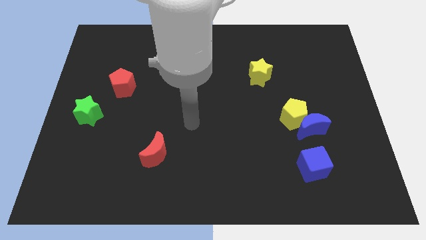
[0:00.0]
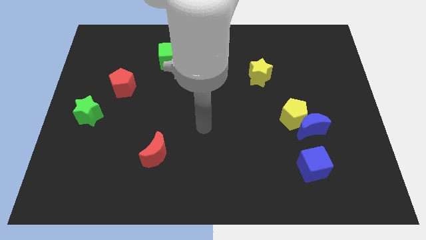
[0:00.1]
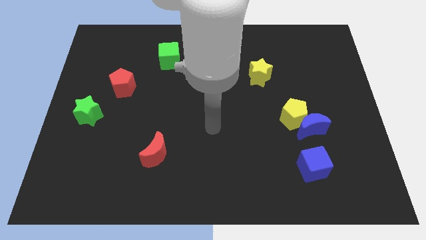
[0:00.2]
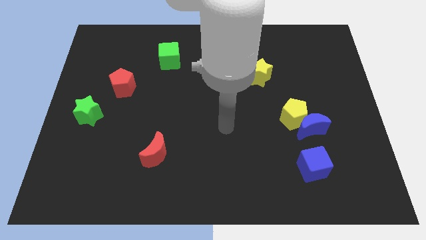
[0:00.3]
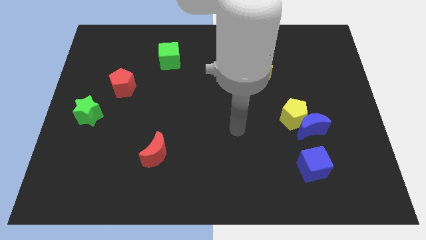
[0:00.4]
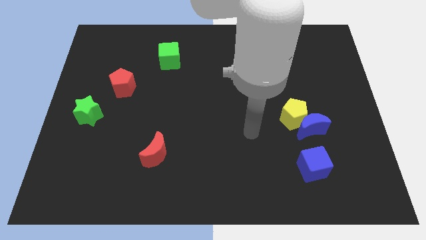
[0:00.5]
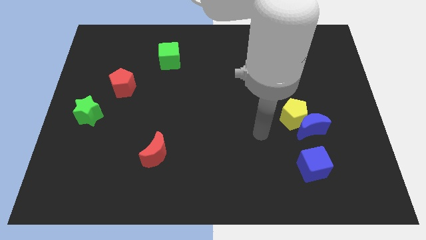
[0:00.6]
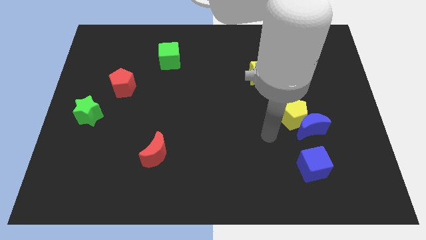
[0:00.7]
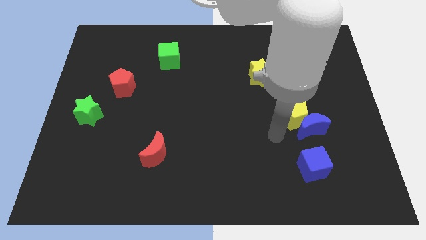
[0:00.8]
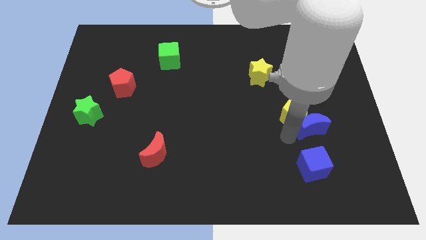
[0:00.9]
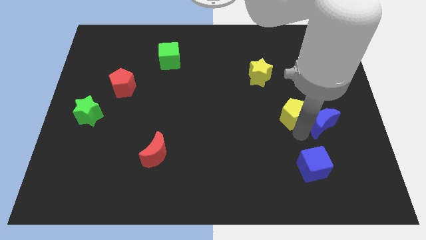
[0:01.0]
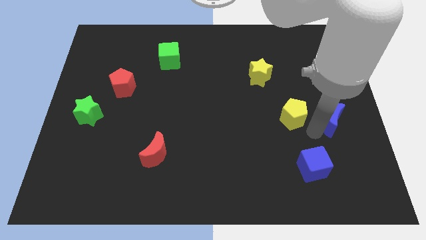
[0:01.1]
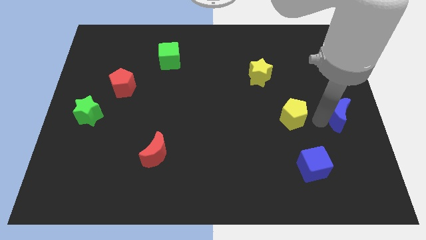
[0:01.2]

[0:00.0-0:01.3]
pull the yellow pentagon apart from the blue moon

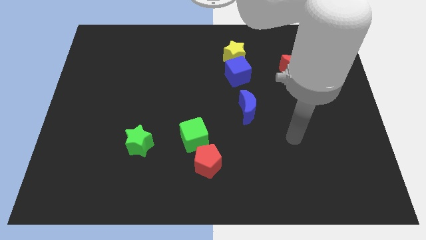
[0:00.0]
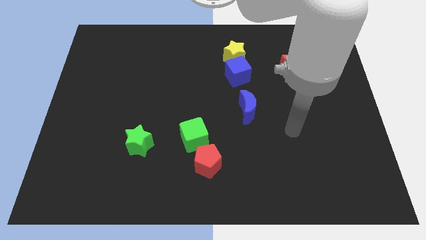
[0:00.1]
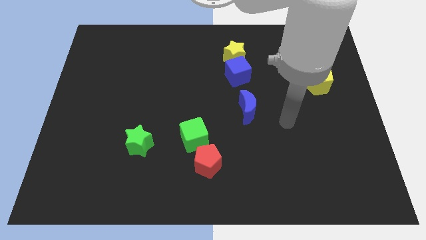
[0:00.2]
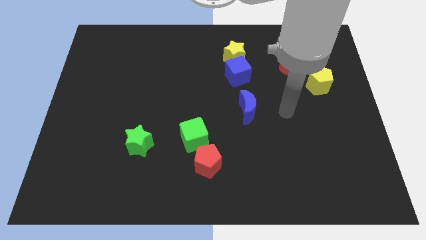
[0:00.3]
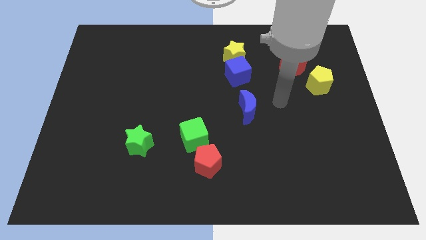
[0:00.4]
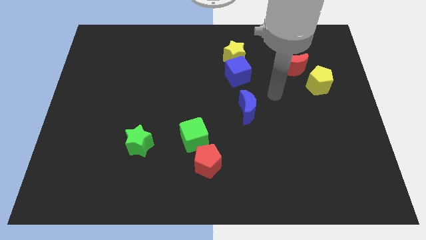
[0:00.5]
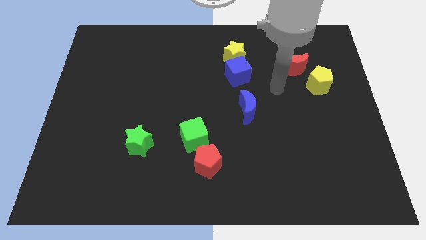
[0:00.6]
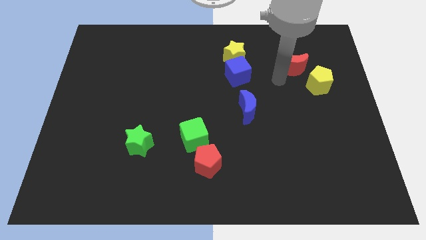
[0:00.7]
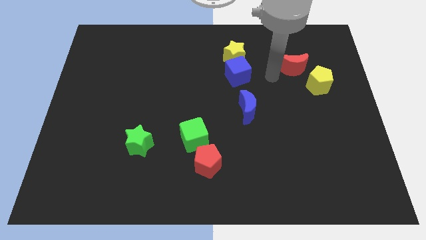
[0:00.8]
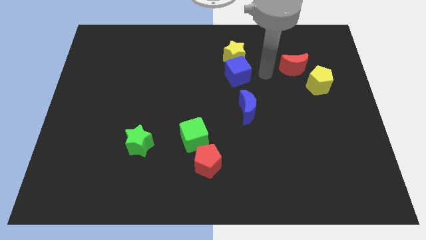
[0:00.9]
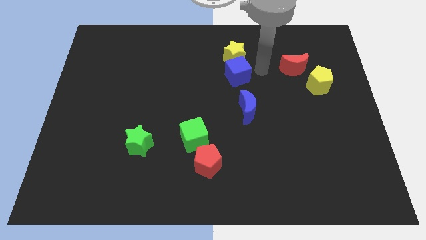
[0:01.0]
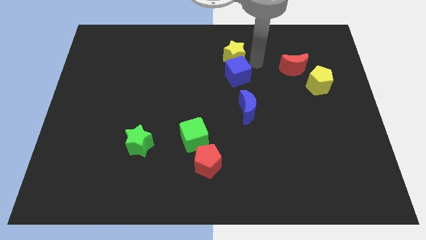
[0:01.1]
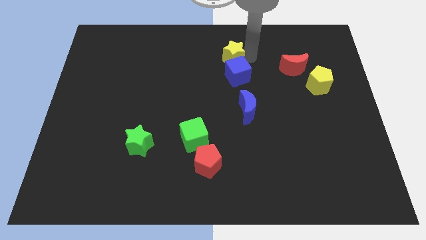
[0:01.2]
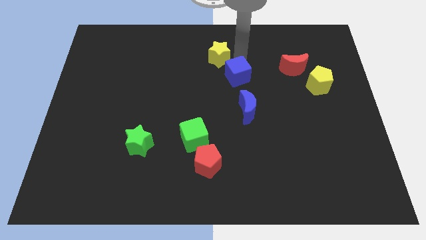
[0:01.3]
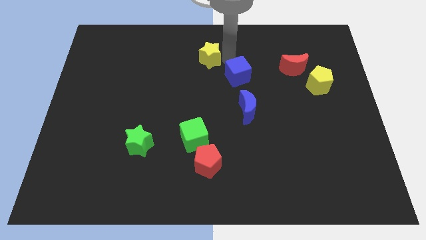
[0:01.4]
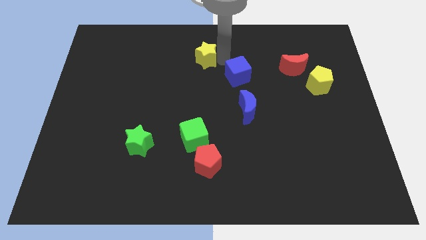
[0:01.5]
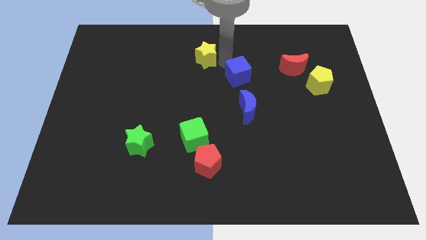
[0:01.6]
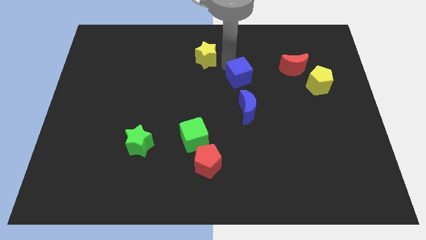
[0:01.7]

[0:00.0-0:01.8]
pull the blue cube apart from the yellow star

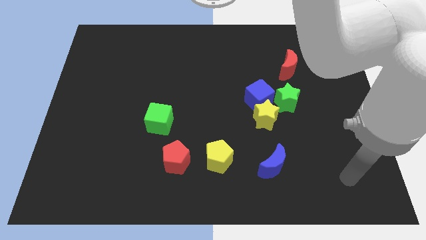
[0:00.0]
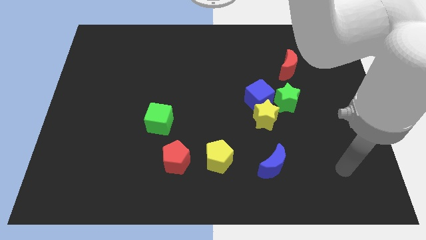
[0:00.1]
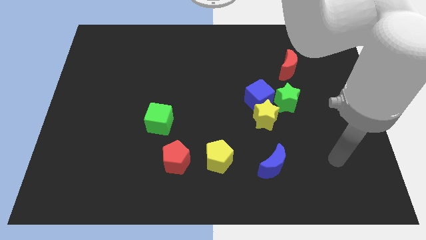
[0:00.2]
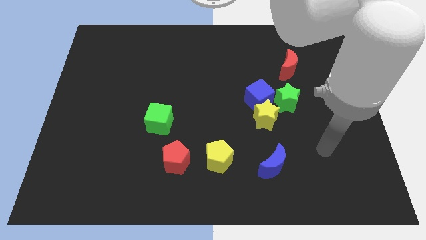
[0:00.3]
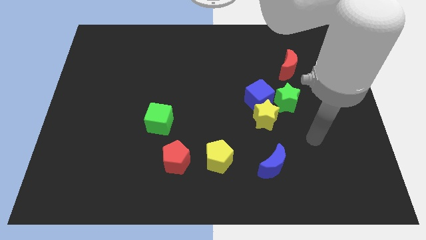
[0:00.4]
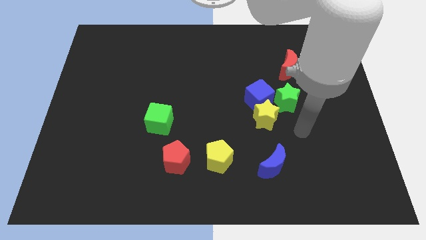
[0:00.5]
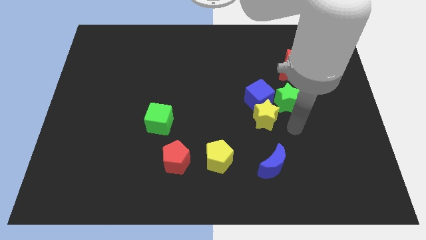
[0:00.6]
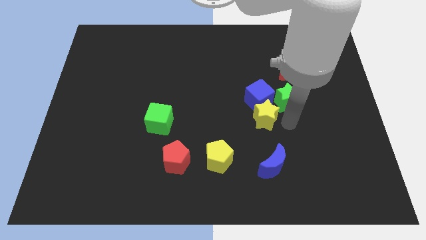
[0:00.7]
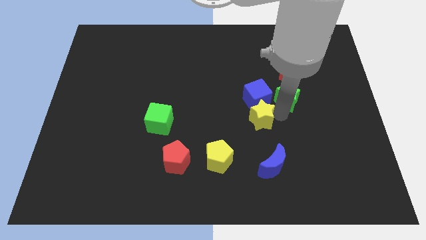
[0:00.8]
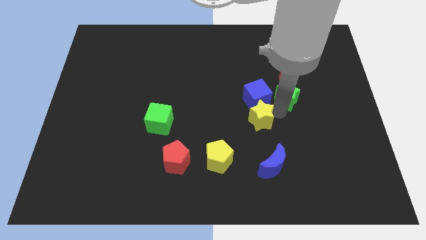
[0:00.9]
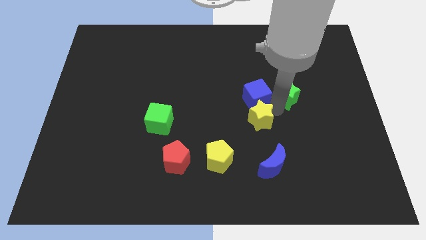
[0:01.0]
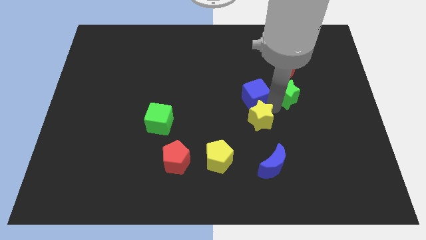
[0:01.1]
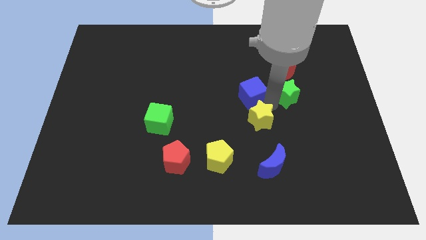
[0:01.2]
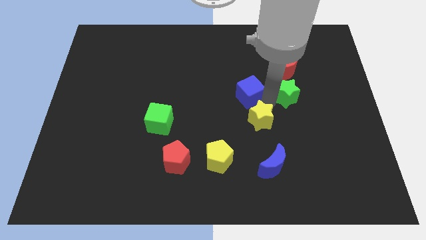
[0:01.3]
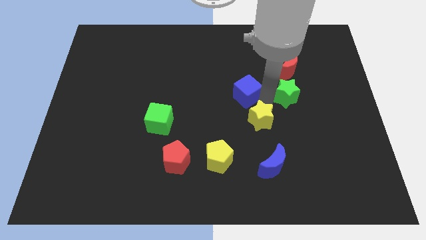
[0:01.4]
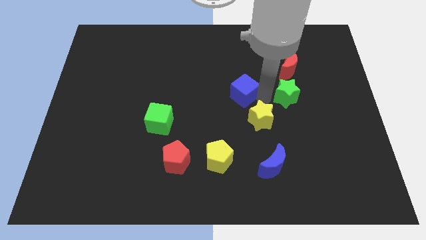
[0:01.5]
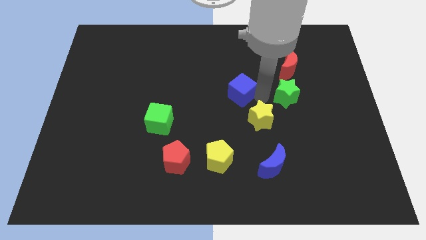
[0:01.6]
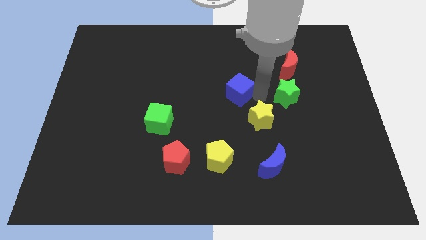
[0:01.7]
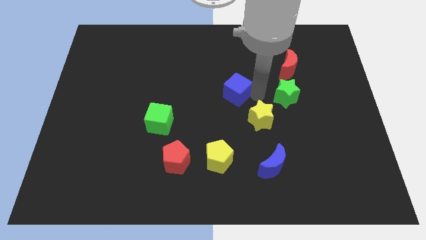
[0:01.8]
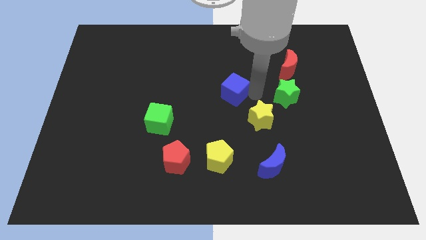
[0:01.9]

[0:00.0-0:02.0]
separate the blue cube from the yellow star and green star

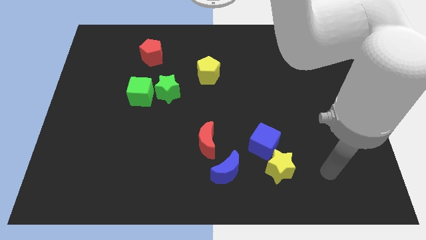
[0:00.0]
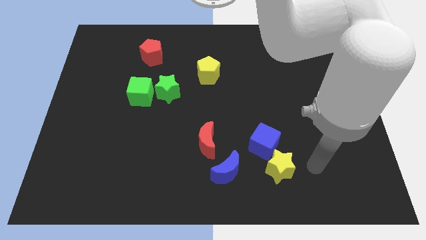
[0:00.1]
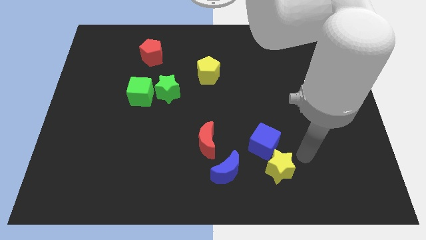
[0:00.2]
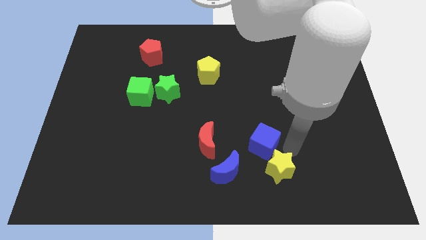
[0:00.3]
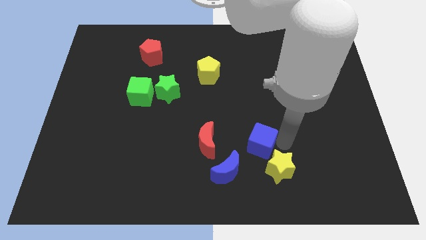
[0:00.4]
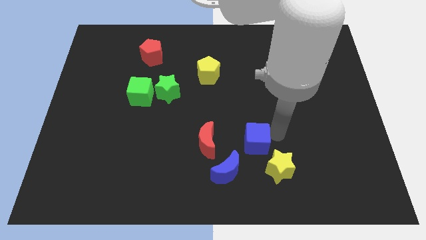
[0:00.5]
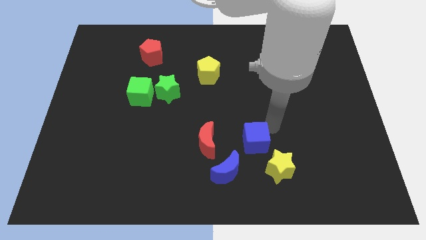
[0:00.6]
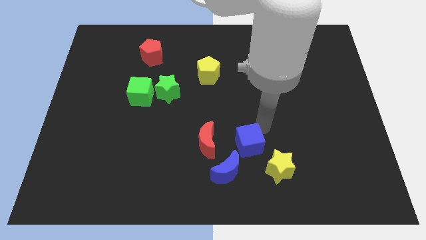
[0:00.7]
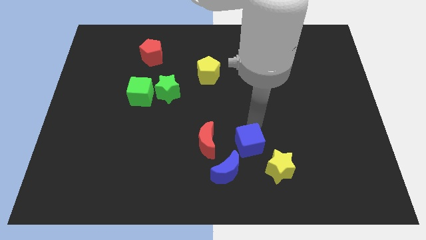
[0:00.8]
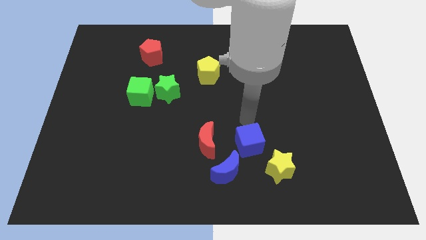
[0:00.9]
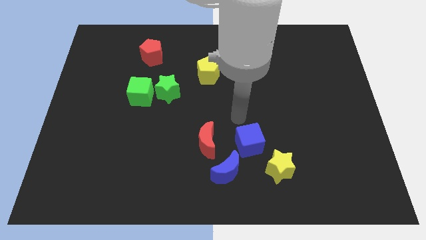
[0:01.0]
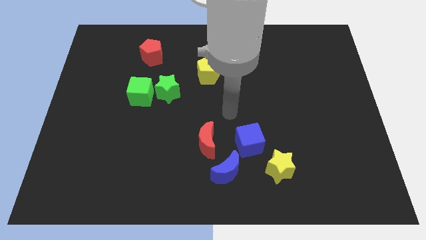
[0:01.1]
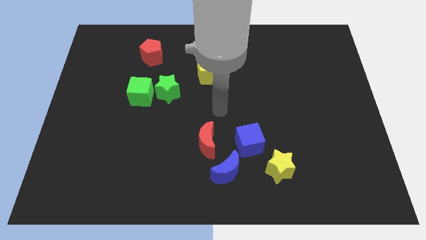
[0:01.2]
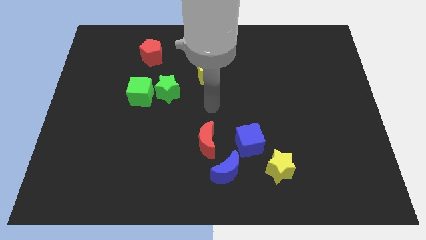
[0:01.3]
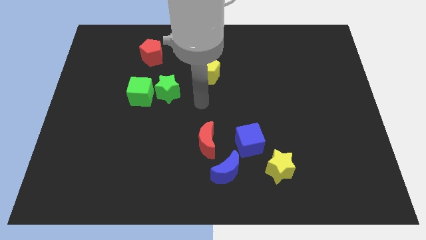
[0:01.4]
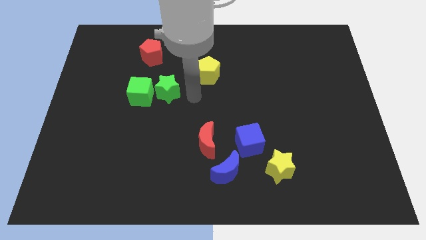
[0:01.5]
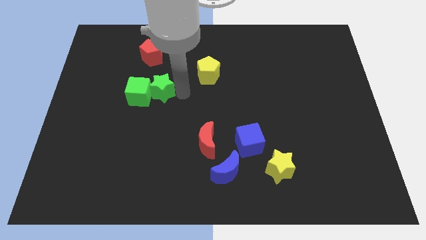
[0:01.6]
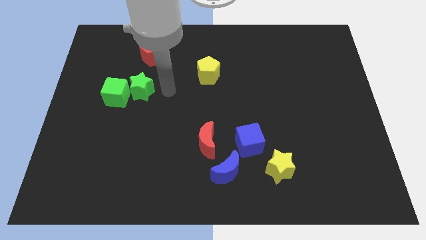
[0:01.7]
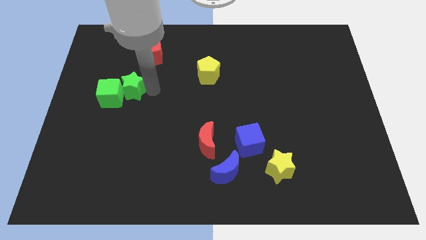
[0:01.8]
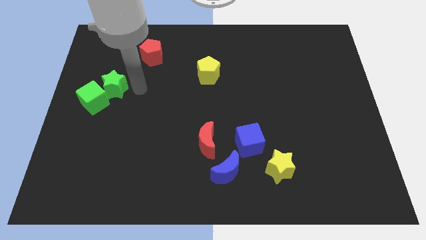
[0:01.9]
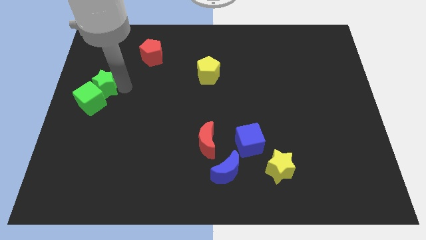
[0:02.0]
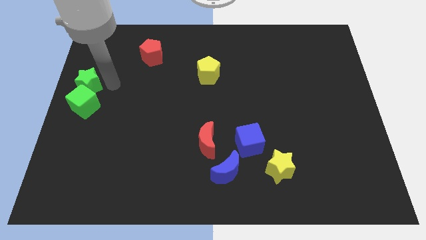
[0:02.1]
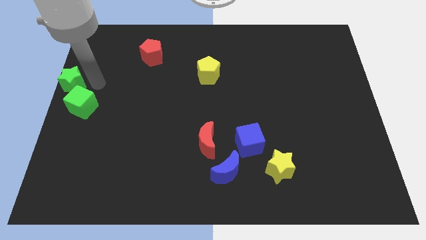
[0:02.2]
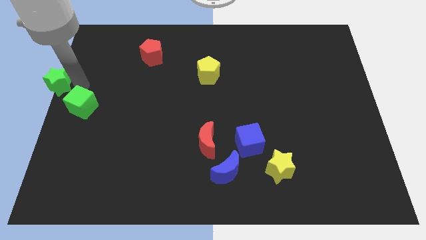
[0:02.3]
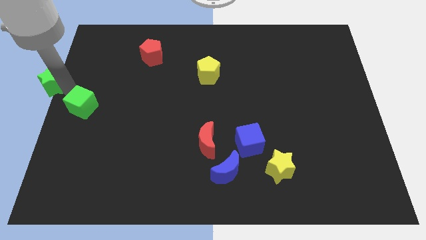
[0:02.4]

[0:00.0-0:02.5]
move the green cube away from the green star

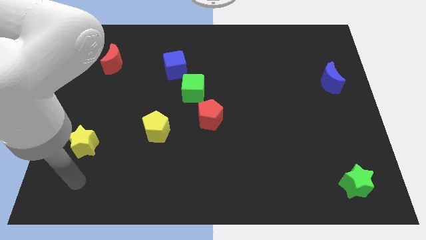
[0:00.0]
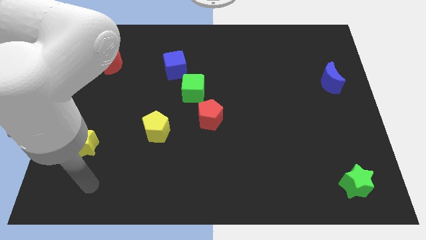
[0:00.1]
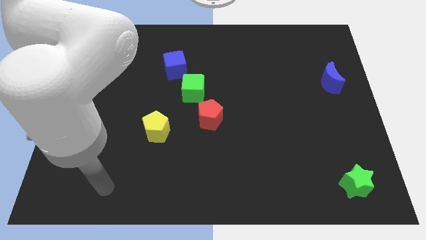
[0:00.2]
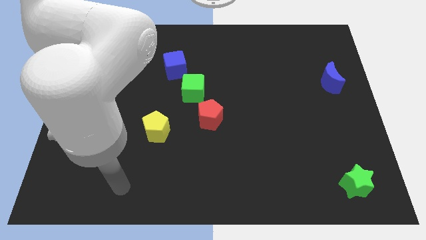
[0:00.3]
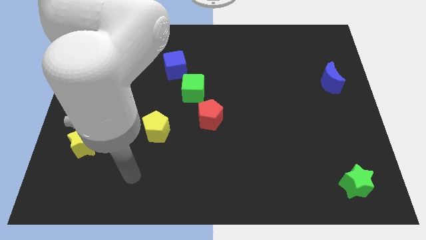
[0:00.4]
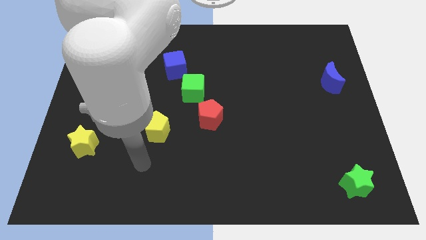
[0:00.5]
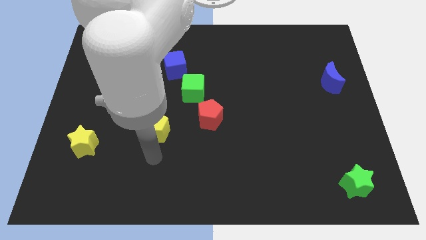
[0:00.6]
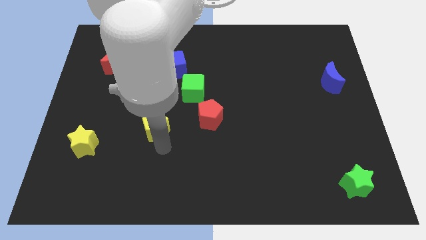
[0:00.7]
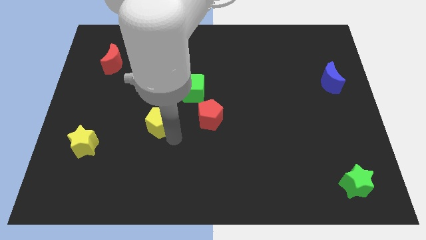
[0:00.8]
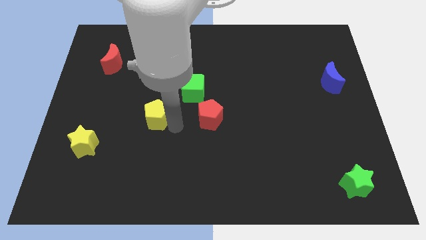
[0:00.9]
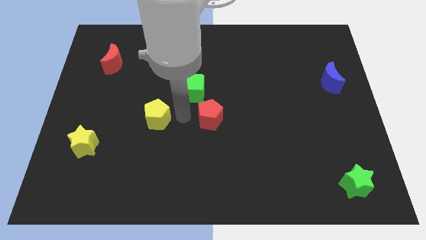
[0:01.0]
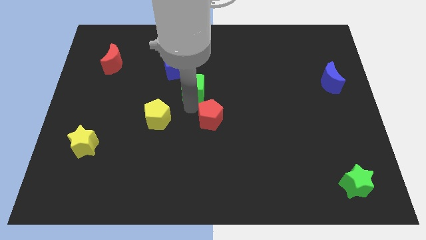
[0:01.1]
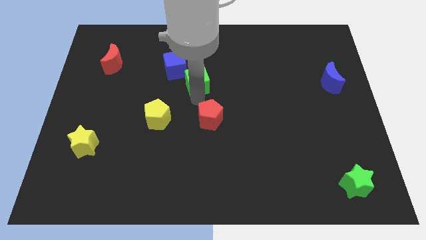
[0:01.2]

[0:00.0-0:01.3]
move the red pentagon away from the green cube

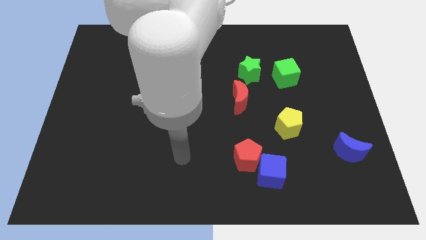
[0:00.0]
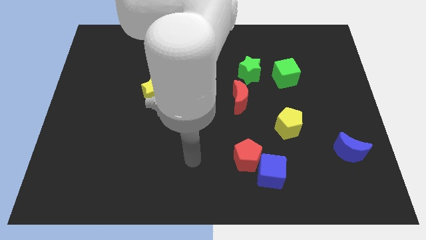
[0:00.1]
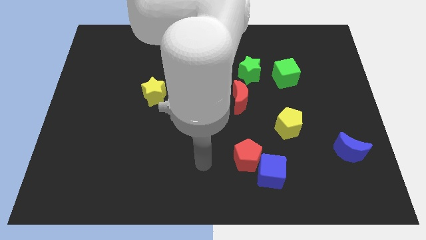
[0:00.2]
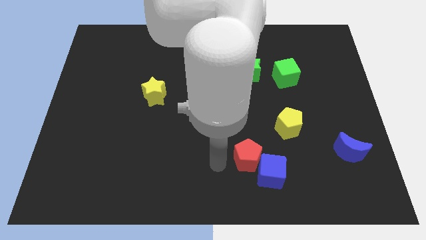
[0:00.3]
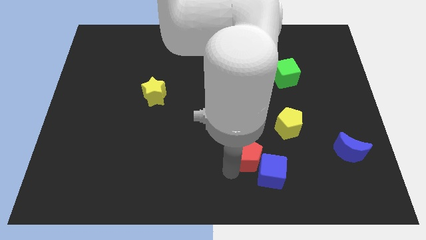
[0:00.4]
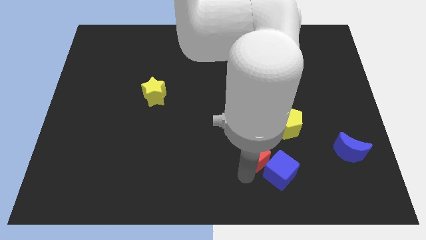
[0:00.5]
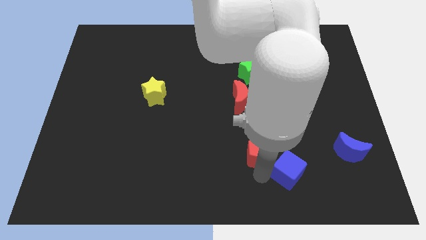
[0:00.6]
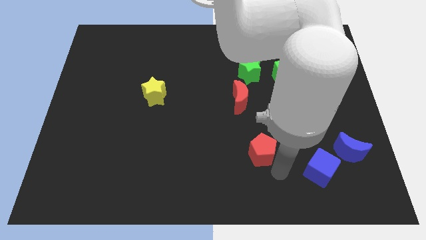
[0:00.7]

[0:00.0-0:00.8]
pull the red pentagon apart from the blue cube
